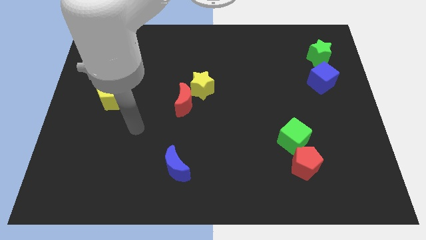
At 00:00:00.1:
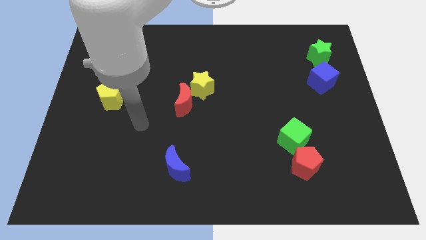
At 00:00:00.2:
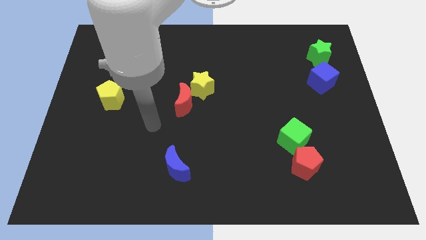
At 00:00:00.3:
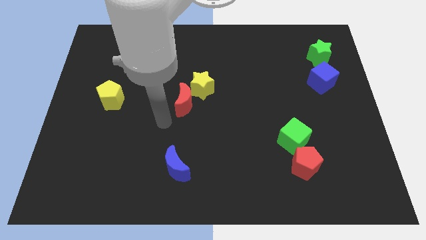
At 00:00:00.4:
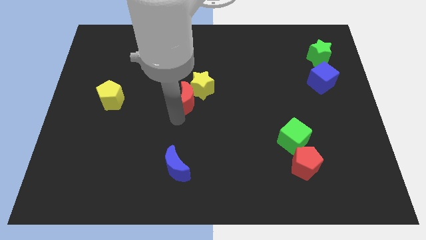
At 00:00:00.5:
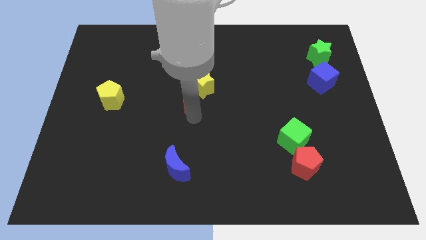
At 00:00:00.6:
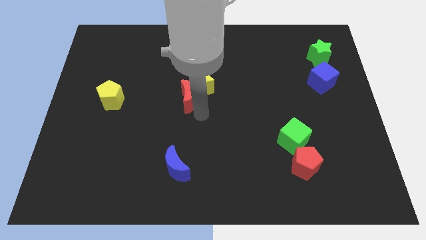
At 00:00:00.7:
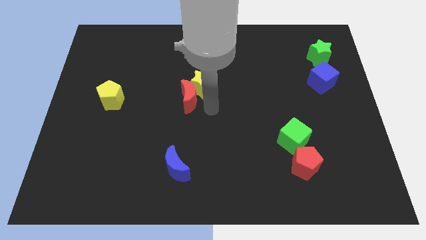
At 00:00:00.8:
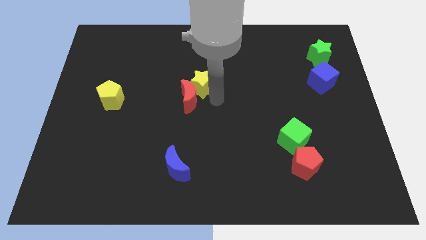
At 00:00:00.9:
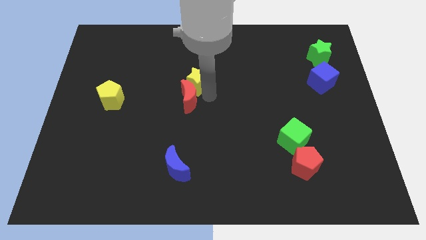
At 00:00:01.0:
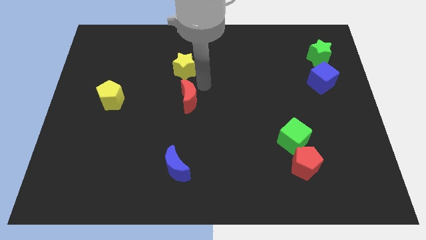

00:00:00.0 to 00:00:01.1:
move the red moon away from the yellow star

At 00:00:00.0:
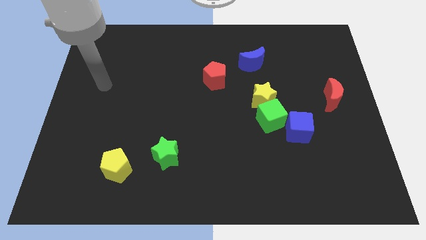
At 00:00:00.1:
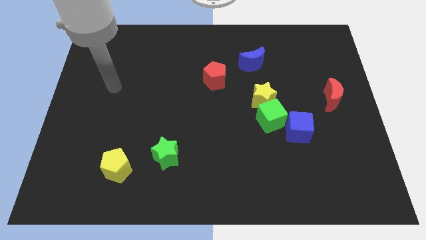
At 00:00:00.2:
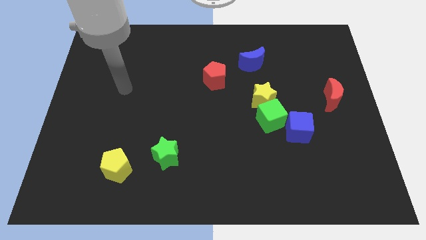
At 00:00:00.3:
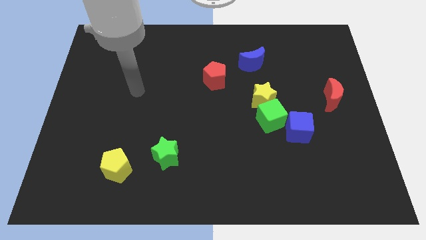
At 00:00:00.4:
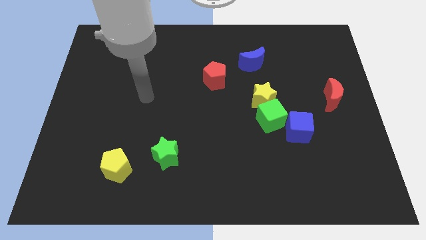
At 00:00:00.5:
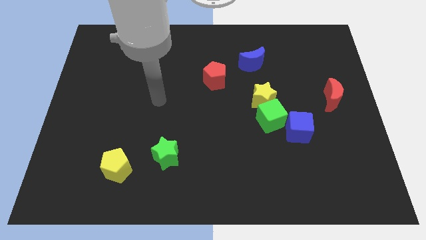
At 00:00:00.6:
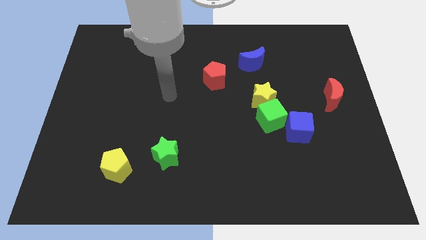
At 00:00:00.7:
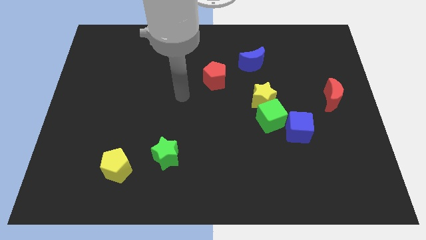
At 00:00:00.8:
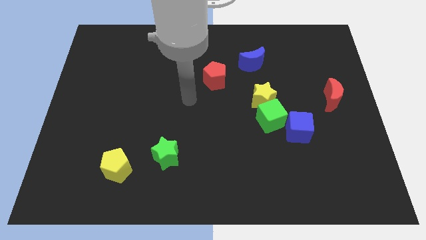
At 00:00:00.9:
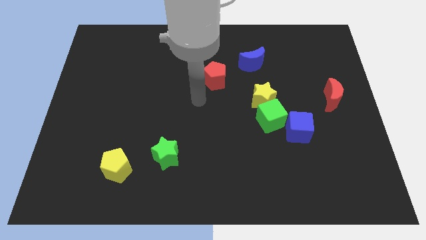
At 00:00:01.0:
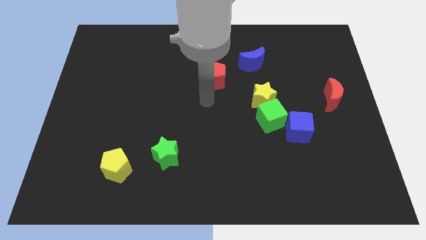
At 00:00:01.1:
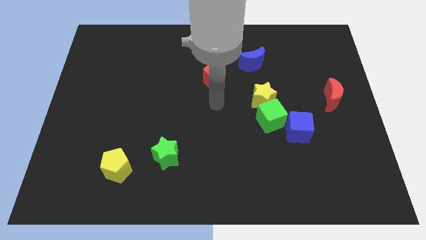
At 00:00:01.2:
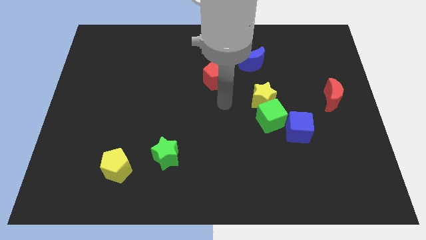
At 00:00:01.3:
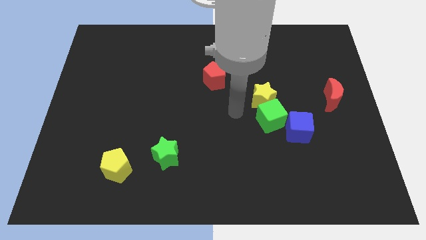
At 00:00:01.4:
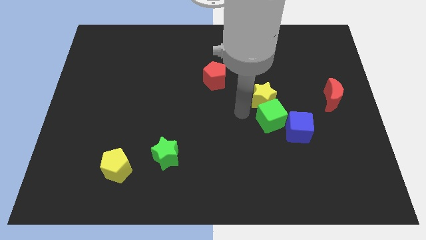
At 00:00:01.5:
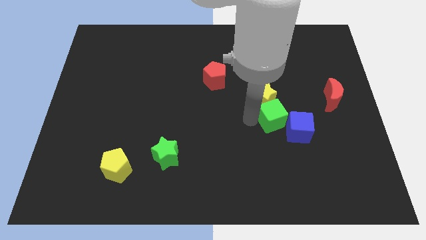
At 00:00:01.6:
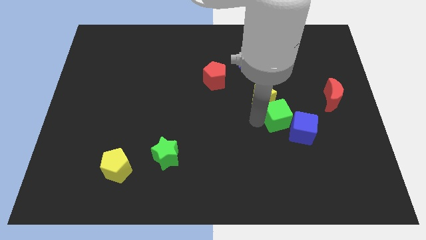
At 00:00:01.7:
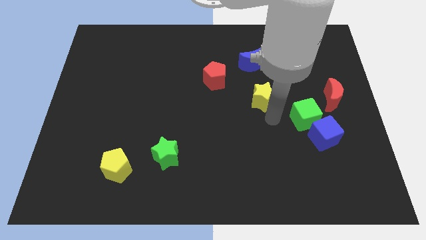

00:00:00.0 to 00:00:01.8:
separate the yellow star from the green cube

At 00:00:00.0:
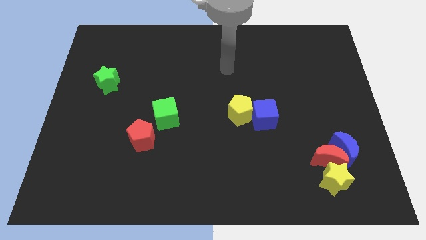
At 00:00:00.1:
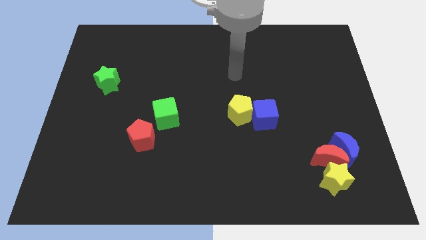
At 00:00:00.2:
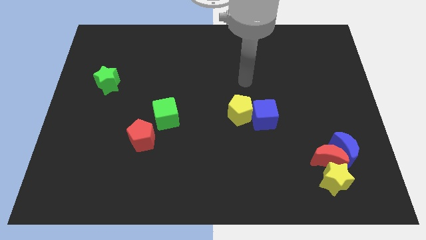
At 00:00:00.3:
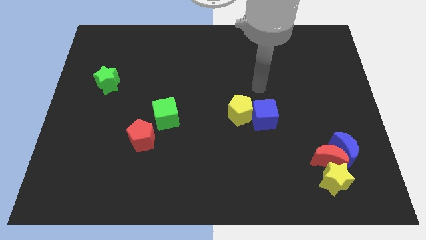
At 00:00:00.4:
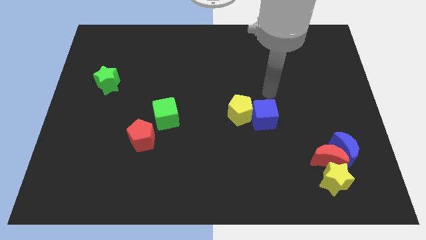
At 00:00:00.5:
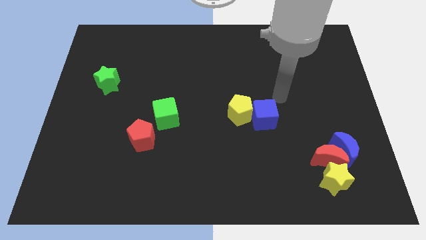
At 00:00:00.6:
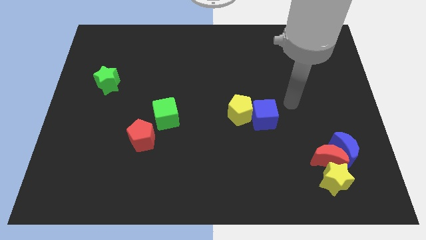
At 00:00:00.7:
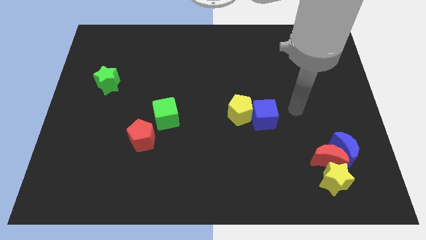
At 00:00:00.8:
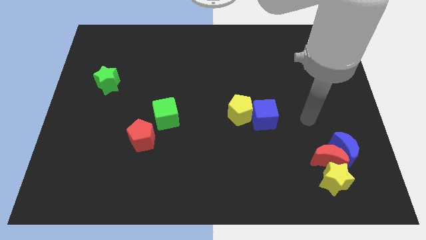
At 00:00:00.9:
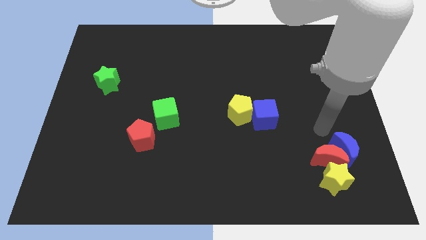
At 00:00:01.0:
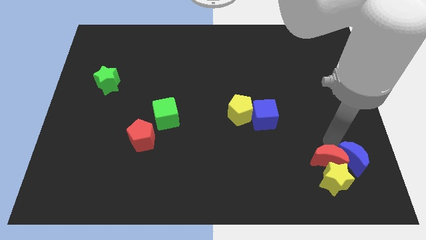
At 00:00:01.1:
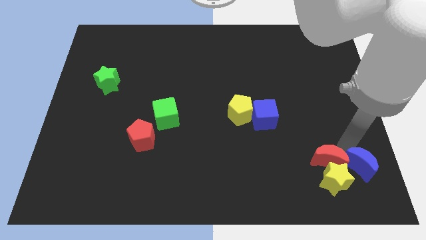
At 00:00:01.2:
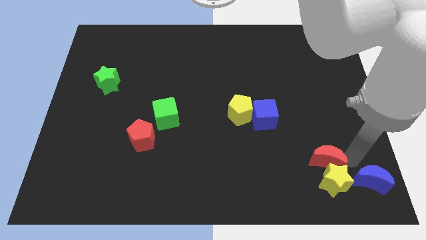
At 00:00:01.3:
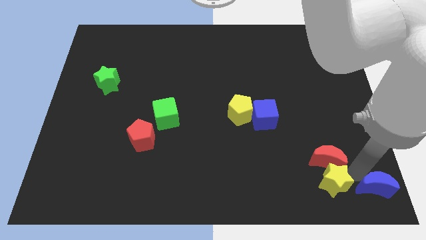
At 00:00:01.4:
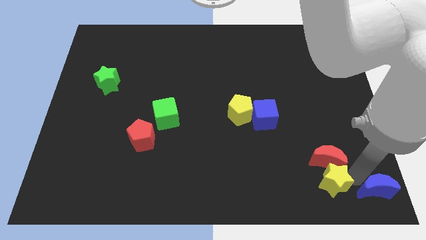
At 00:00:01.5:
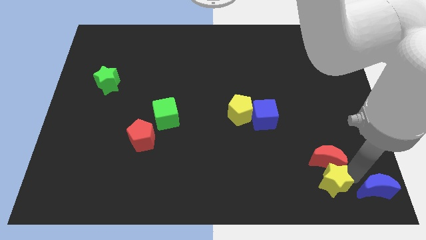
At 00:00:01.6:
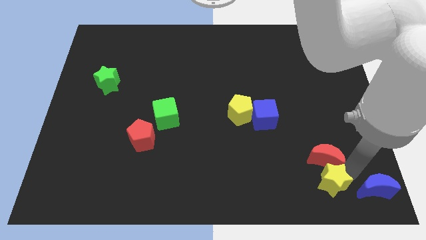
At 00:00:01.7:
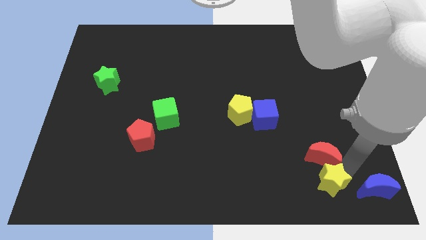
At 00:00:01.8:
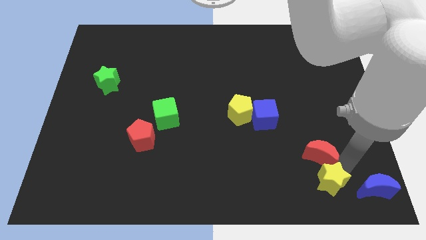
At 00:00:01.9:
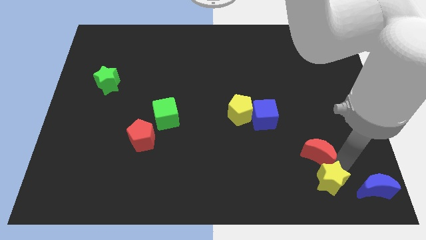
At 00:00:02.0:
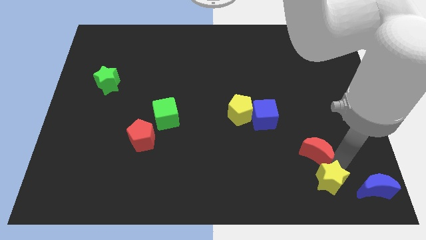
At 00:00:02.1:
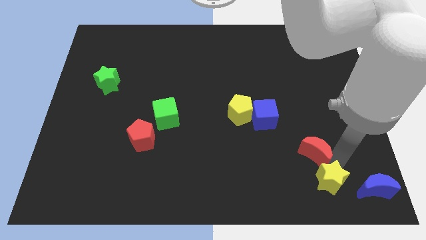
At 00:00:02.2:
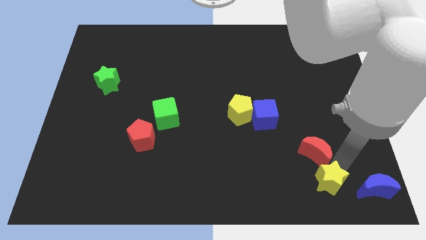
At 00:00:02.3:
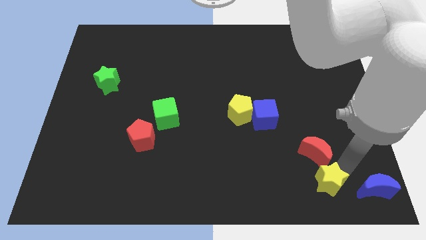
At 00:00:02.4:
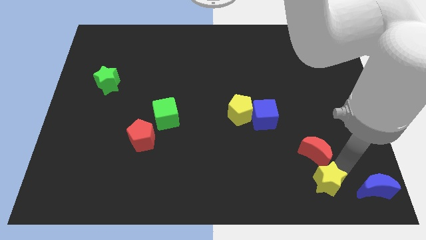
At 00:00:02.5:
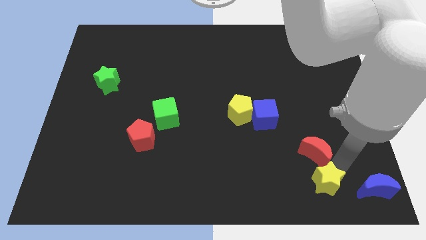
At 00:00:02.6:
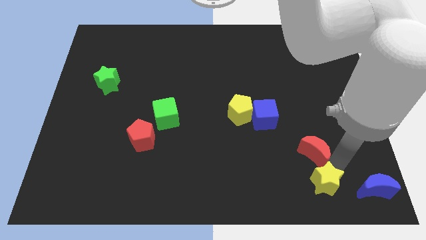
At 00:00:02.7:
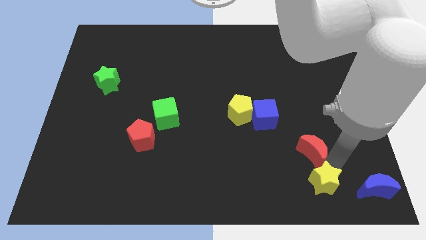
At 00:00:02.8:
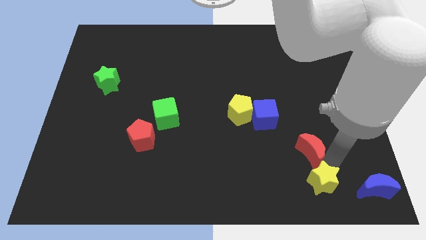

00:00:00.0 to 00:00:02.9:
separate the red moon from the blue moon and yellow star

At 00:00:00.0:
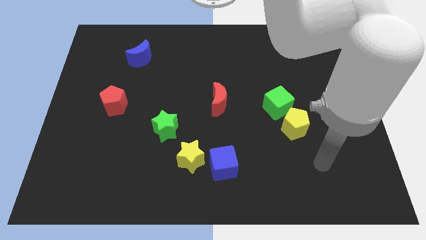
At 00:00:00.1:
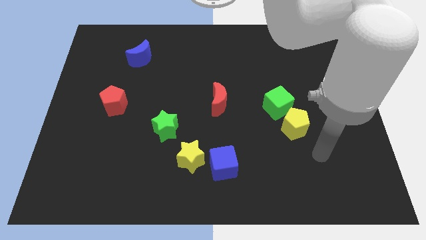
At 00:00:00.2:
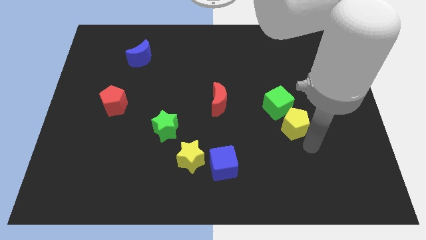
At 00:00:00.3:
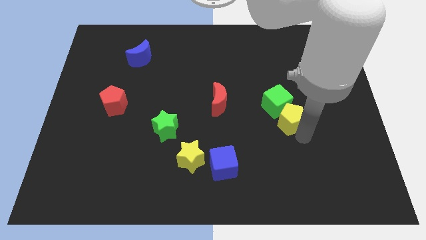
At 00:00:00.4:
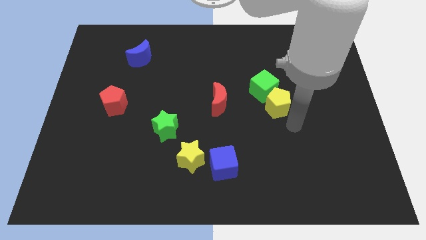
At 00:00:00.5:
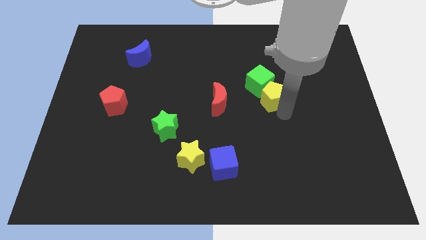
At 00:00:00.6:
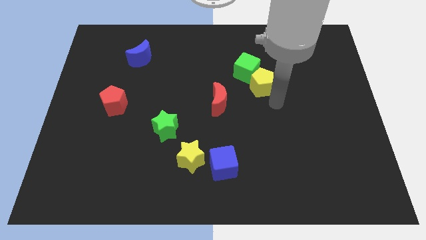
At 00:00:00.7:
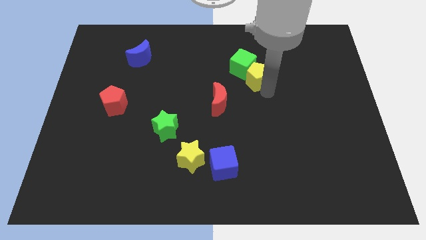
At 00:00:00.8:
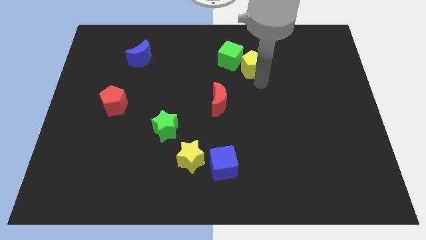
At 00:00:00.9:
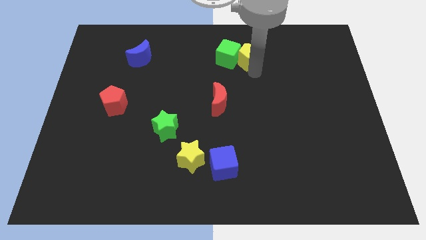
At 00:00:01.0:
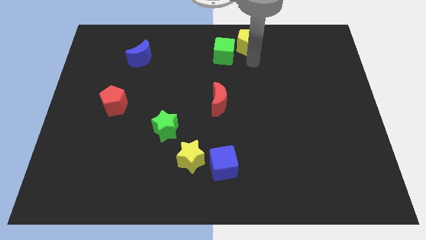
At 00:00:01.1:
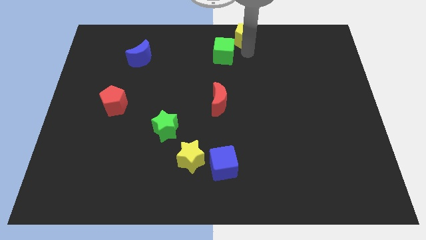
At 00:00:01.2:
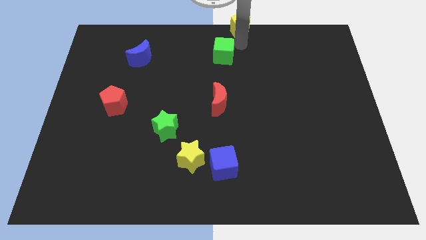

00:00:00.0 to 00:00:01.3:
move the green cube away from the yellow pentagon

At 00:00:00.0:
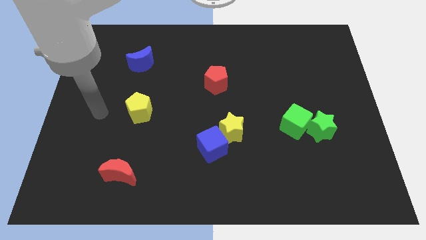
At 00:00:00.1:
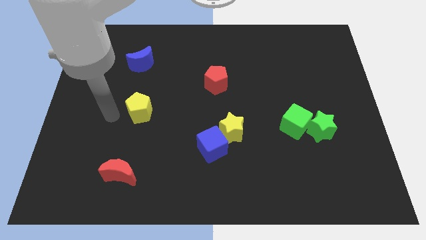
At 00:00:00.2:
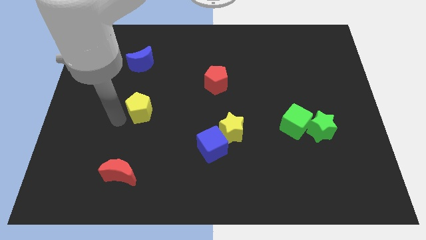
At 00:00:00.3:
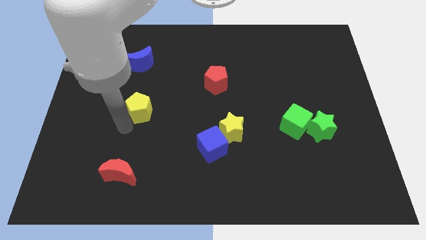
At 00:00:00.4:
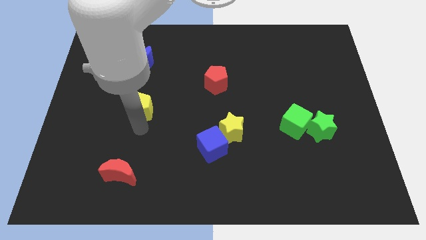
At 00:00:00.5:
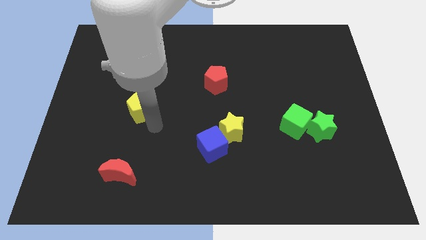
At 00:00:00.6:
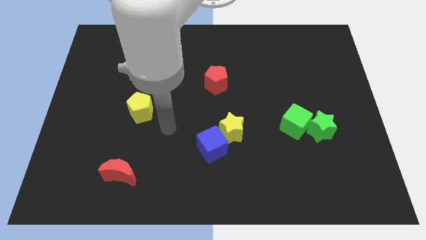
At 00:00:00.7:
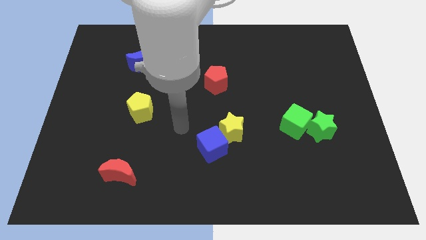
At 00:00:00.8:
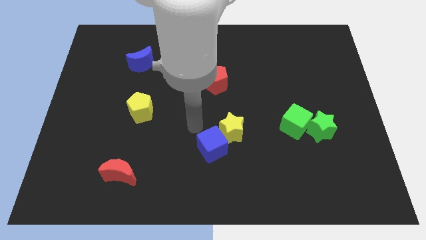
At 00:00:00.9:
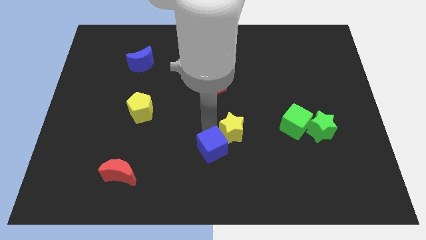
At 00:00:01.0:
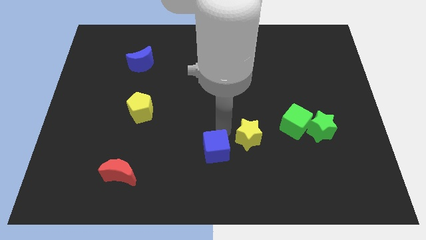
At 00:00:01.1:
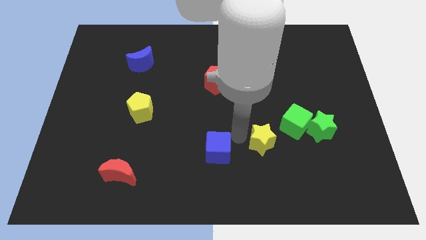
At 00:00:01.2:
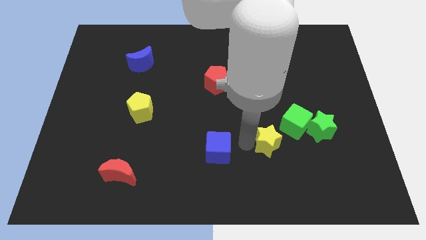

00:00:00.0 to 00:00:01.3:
pull the blue cube apart from the yellow star

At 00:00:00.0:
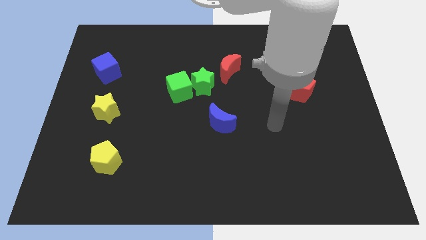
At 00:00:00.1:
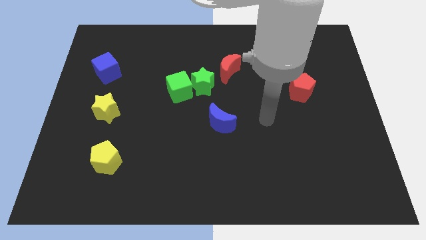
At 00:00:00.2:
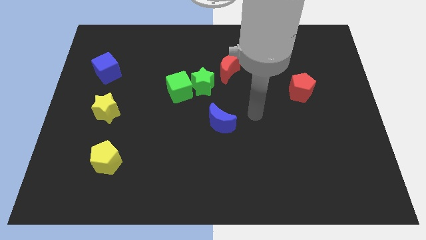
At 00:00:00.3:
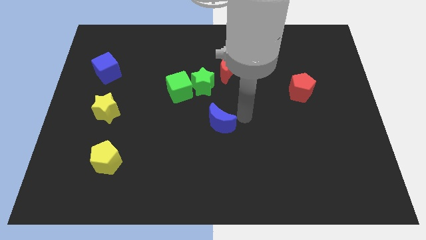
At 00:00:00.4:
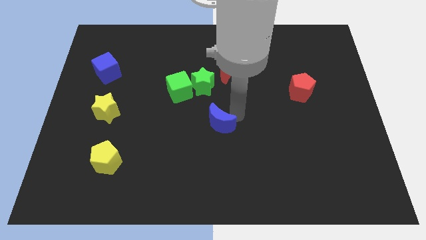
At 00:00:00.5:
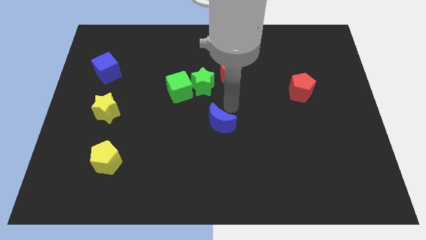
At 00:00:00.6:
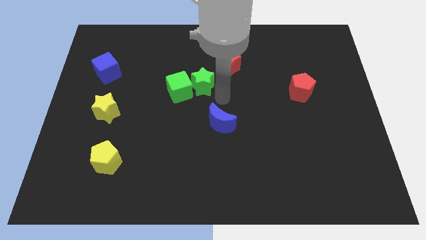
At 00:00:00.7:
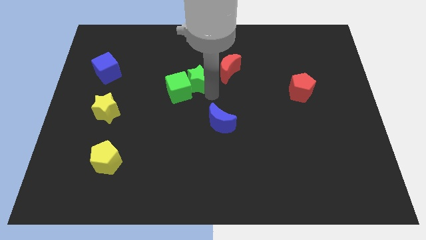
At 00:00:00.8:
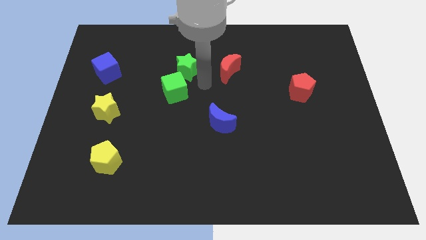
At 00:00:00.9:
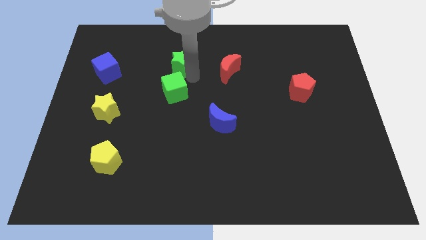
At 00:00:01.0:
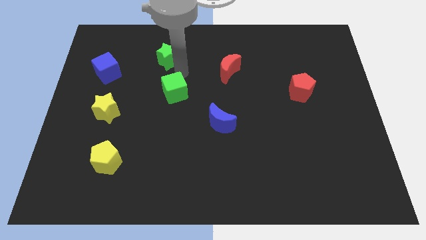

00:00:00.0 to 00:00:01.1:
move the green cube away from the green star
